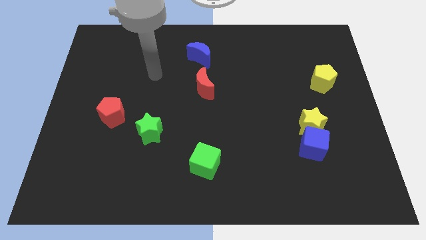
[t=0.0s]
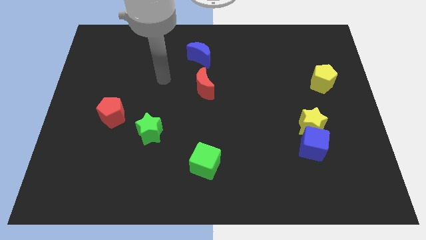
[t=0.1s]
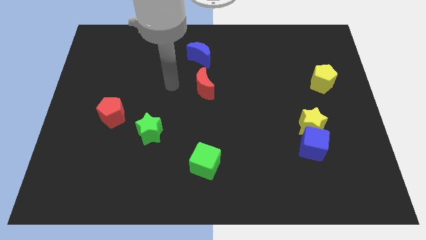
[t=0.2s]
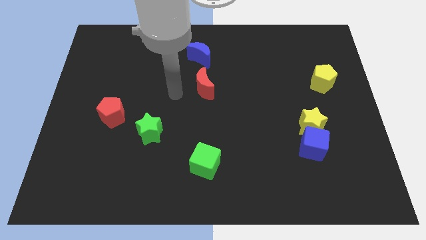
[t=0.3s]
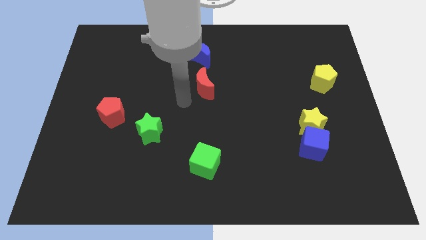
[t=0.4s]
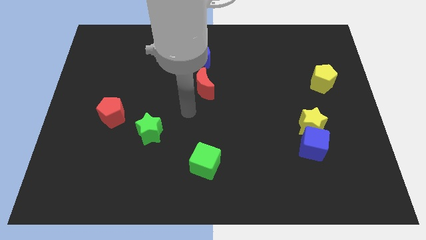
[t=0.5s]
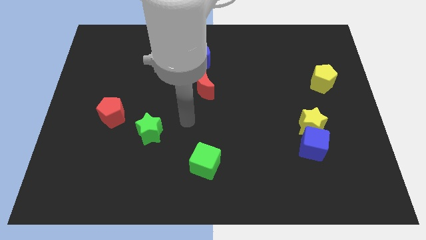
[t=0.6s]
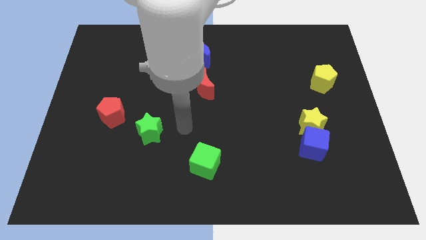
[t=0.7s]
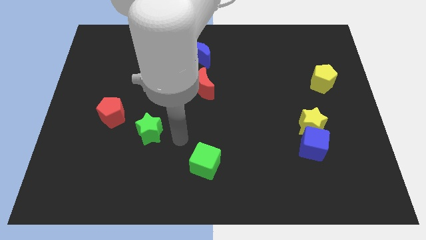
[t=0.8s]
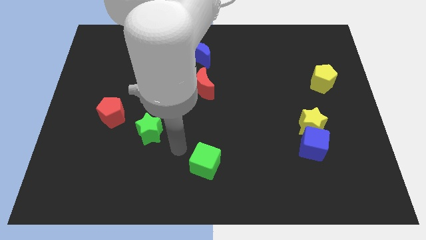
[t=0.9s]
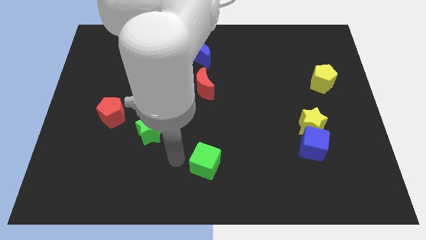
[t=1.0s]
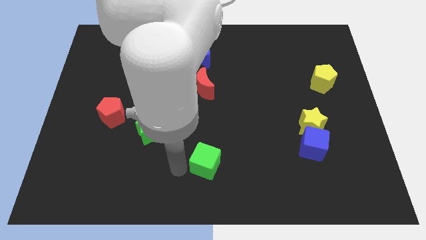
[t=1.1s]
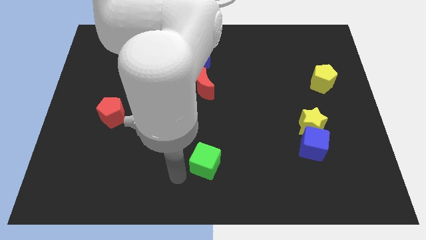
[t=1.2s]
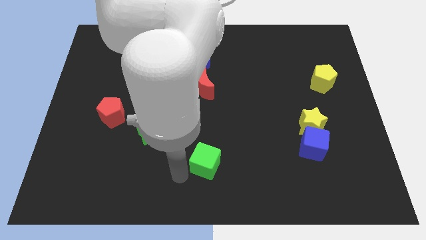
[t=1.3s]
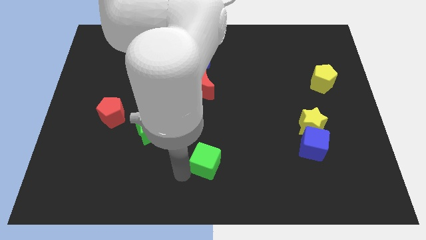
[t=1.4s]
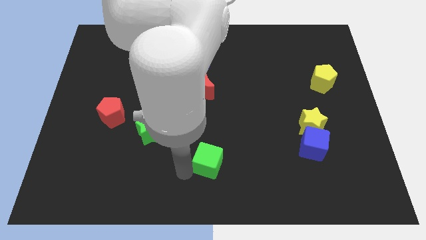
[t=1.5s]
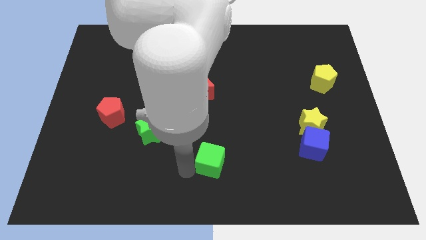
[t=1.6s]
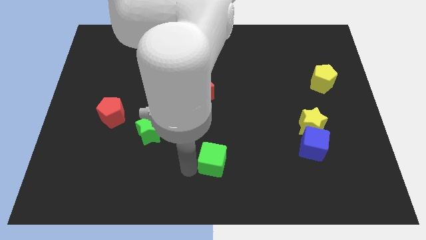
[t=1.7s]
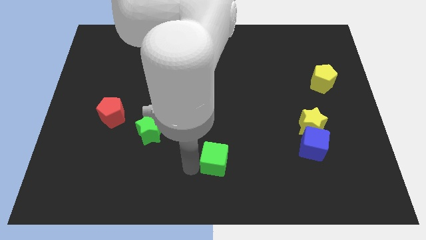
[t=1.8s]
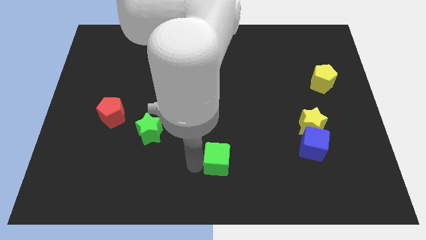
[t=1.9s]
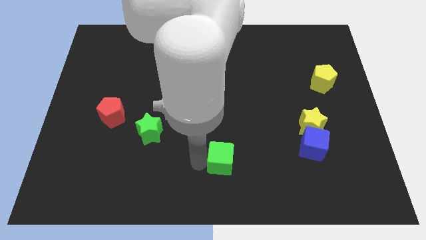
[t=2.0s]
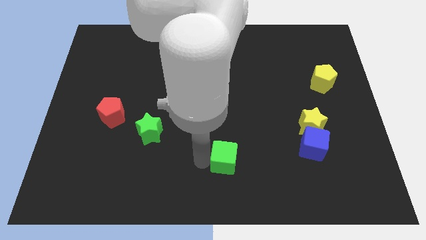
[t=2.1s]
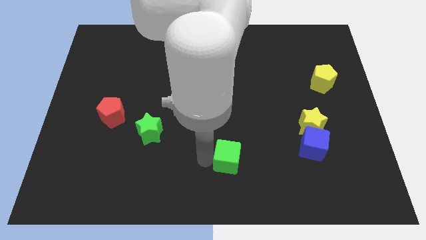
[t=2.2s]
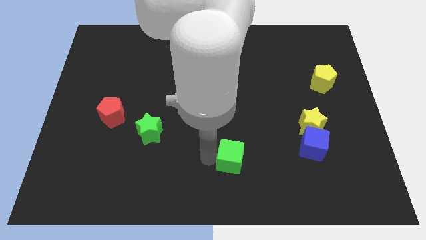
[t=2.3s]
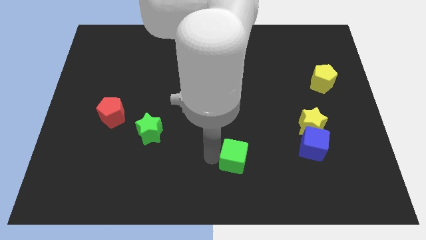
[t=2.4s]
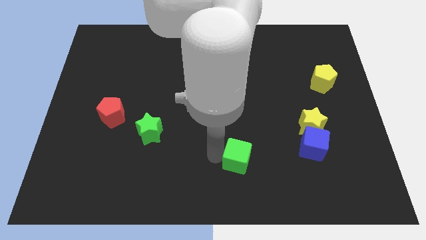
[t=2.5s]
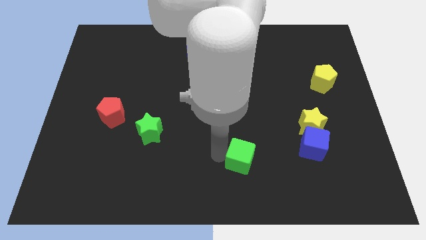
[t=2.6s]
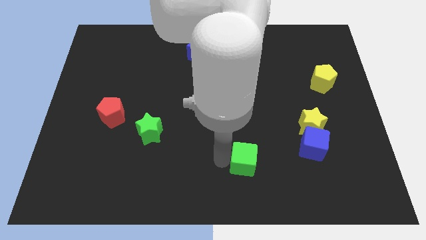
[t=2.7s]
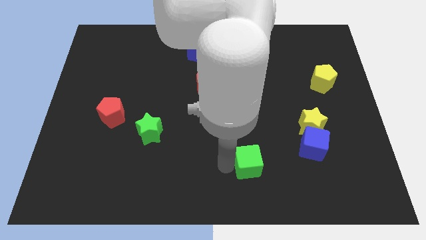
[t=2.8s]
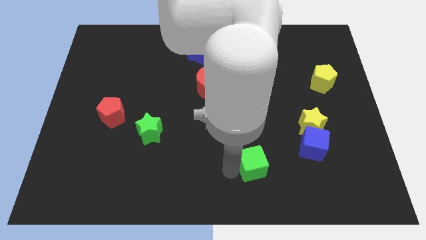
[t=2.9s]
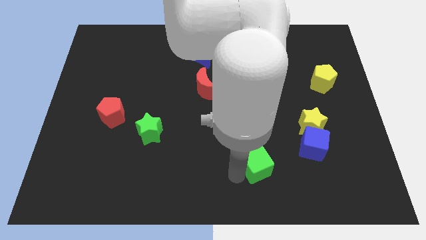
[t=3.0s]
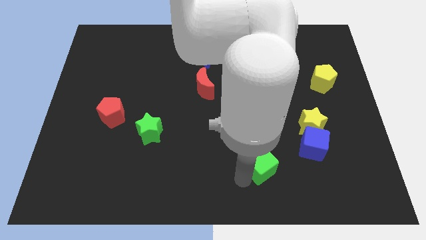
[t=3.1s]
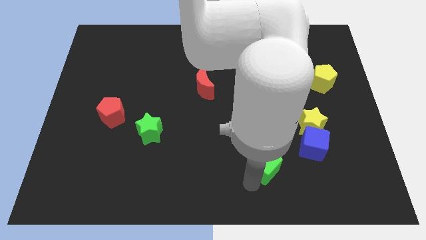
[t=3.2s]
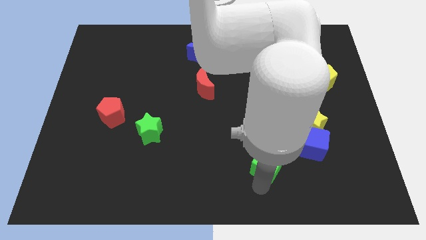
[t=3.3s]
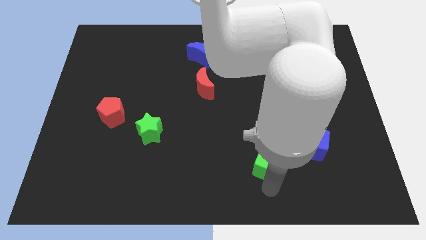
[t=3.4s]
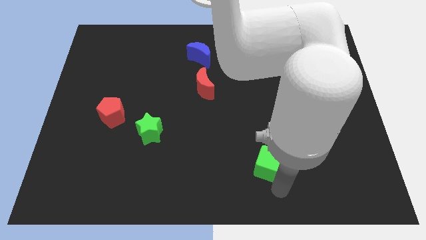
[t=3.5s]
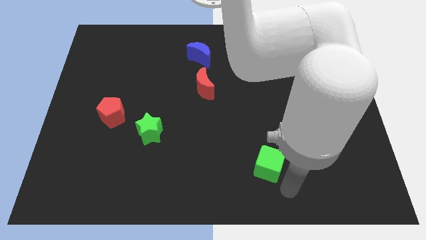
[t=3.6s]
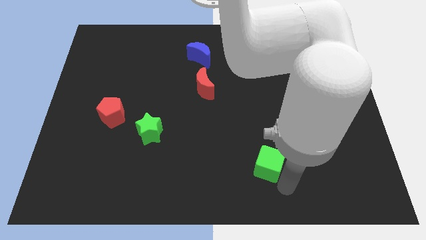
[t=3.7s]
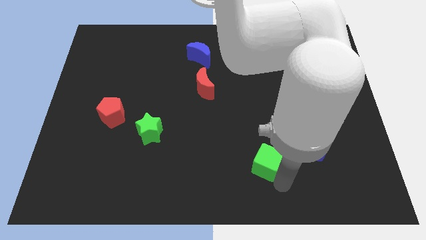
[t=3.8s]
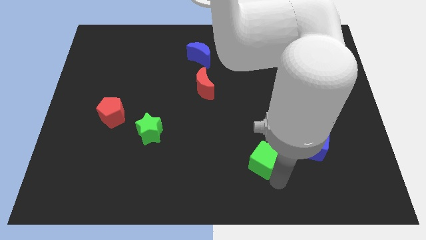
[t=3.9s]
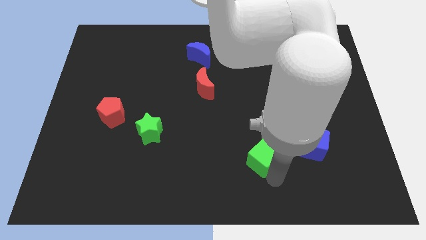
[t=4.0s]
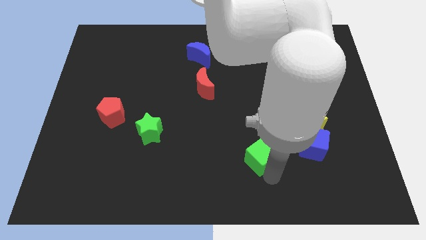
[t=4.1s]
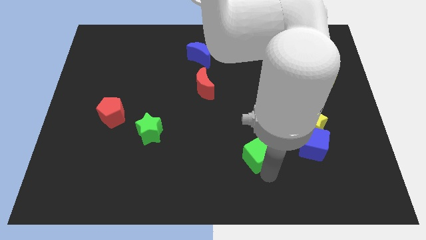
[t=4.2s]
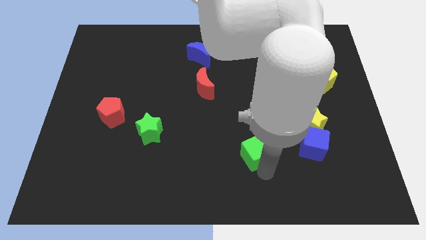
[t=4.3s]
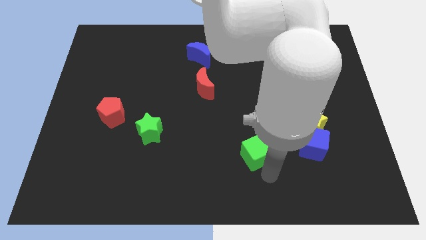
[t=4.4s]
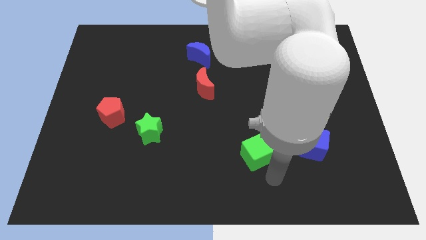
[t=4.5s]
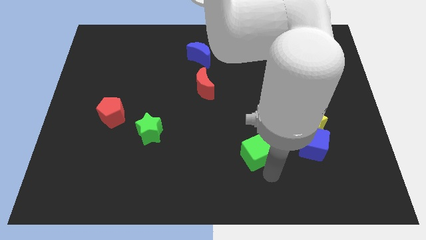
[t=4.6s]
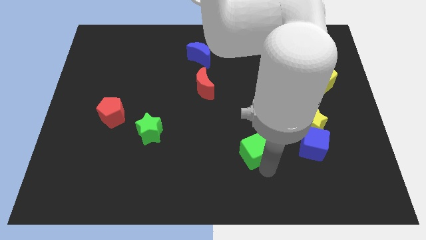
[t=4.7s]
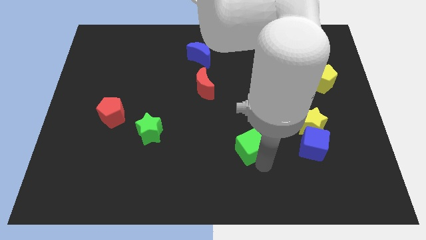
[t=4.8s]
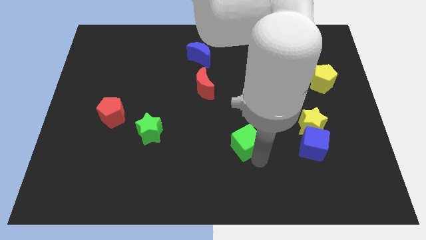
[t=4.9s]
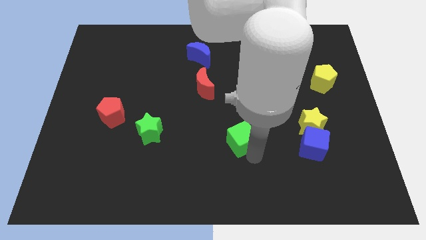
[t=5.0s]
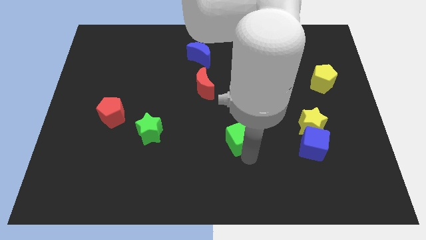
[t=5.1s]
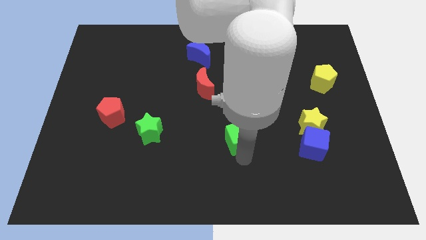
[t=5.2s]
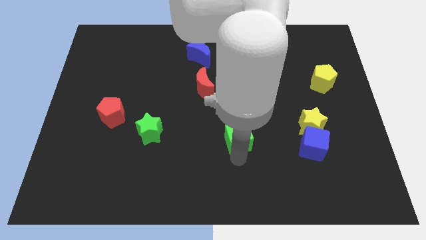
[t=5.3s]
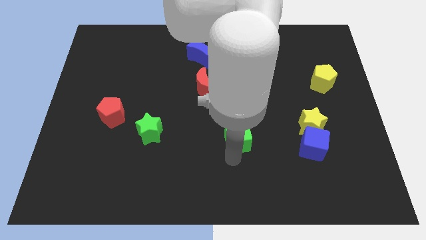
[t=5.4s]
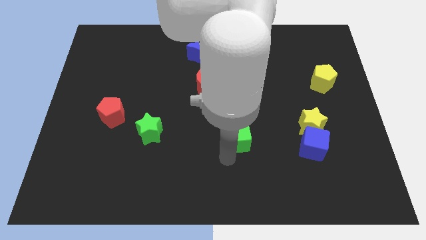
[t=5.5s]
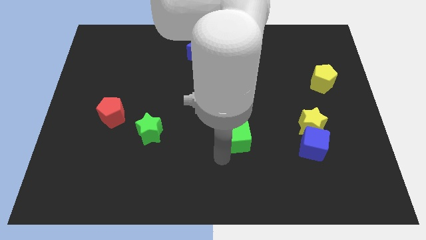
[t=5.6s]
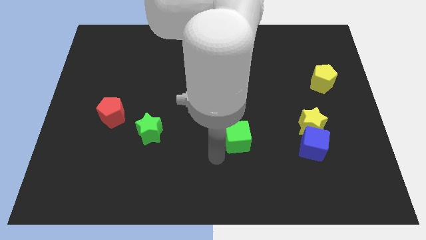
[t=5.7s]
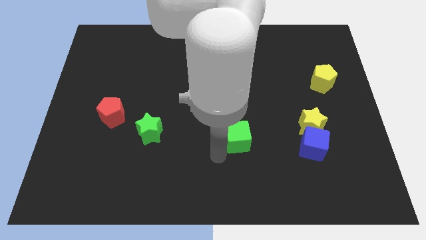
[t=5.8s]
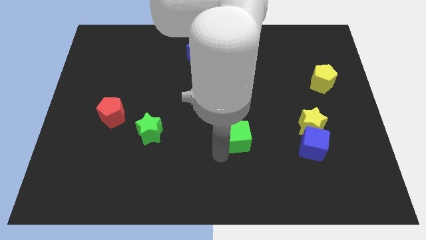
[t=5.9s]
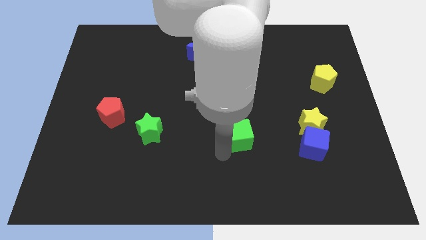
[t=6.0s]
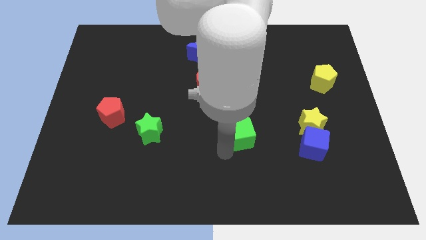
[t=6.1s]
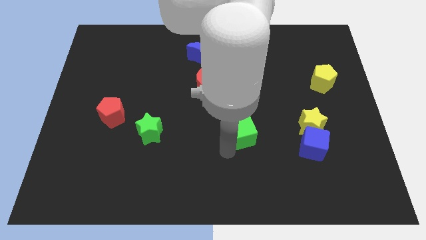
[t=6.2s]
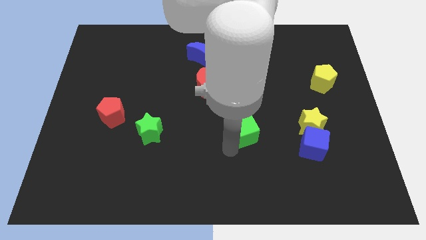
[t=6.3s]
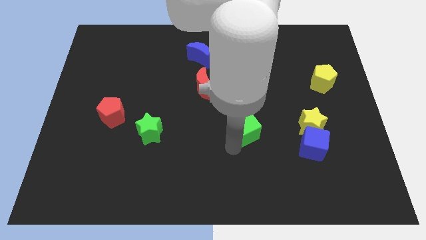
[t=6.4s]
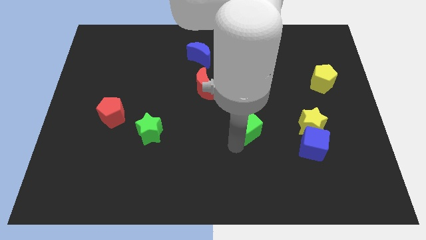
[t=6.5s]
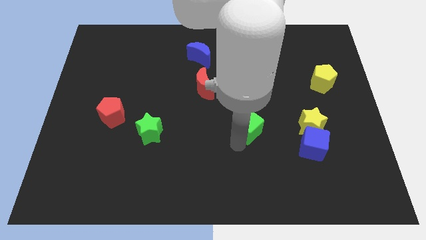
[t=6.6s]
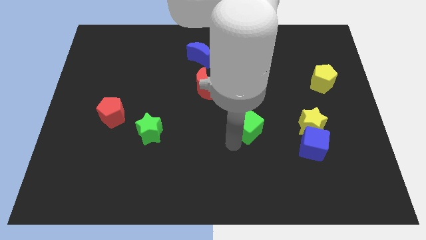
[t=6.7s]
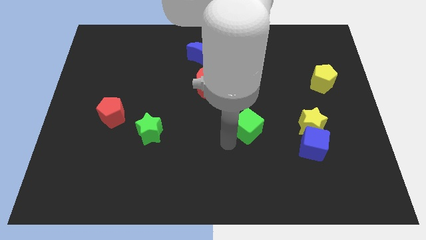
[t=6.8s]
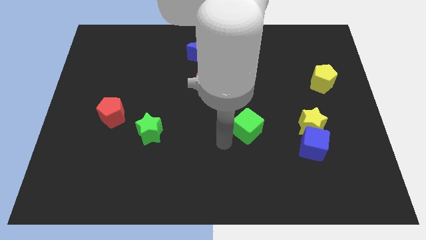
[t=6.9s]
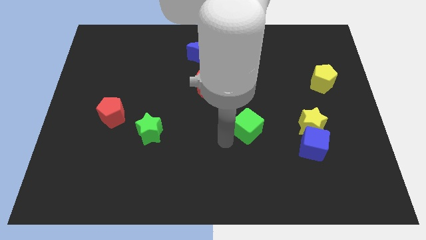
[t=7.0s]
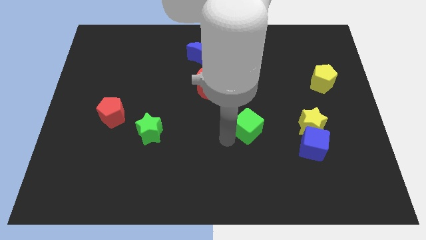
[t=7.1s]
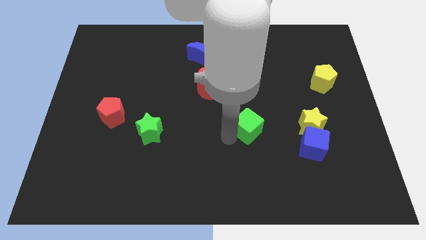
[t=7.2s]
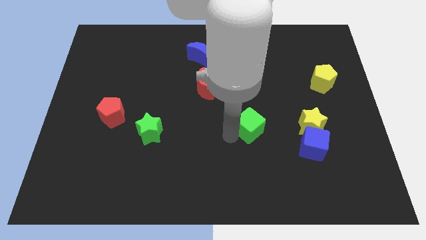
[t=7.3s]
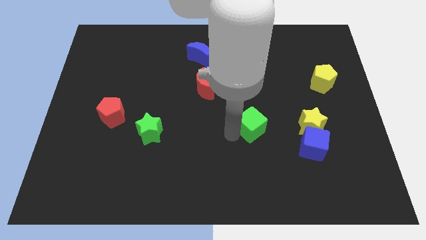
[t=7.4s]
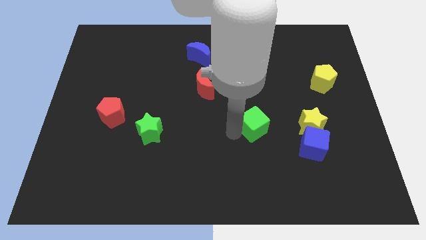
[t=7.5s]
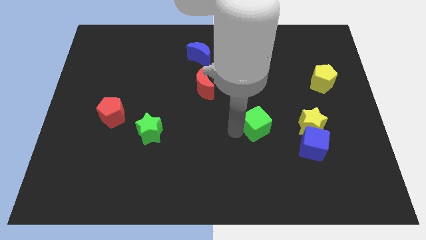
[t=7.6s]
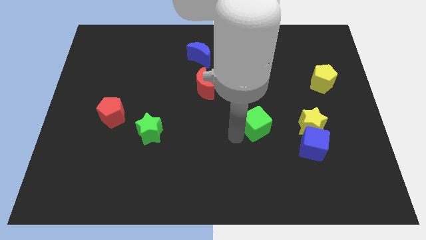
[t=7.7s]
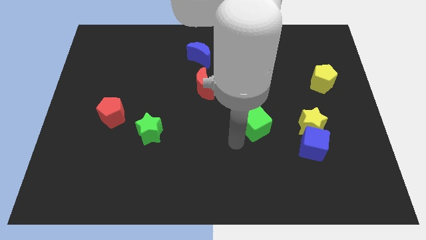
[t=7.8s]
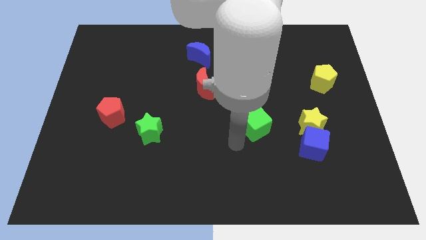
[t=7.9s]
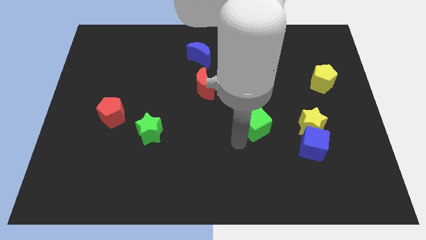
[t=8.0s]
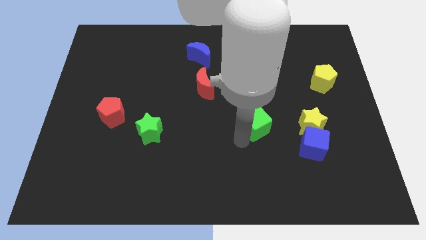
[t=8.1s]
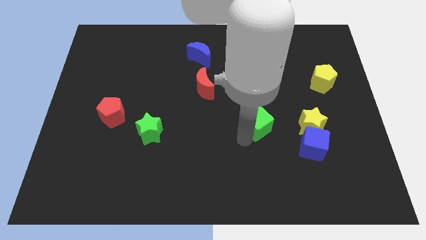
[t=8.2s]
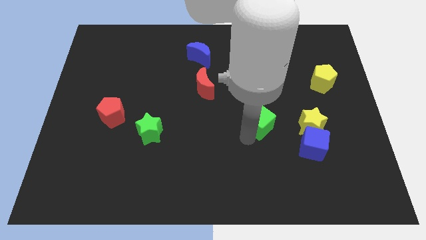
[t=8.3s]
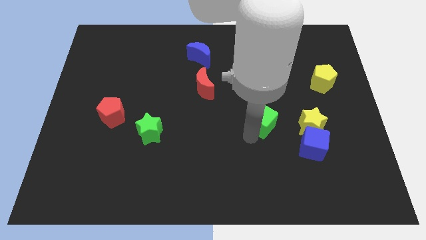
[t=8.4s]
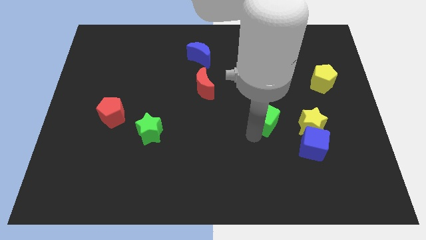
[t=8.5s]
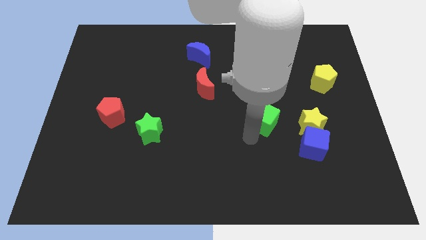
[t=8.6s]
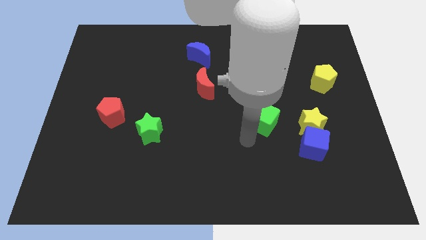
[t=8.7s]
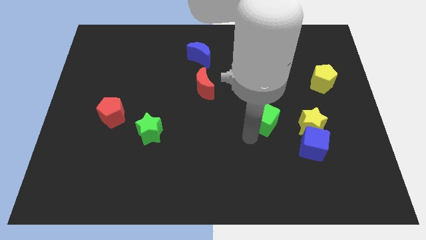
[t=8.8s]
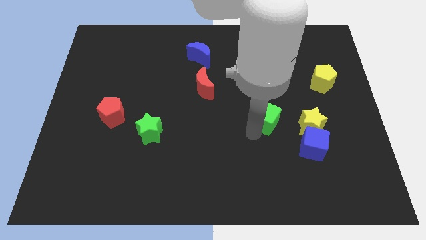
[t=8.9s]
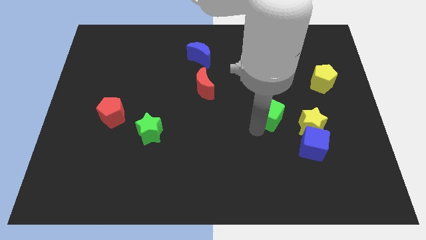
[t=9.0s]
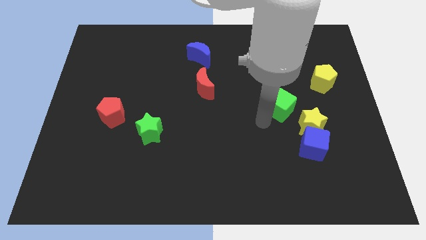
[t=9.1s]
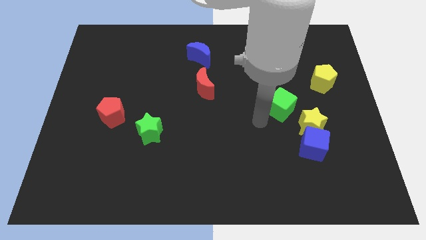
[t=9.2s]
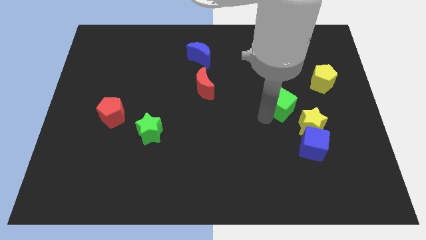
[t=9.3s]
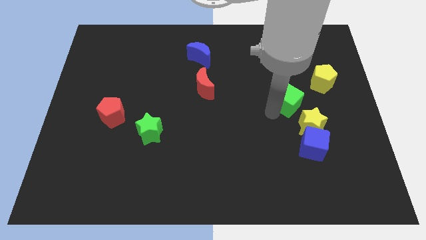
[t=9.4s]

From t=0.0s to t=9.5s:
put the green cube above the yellow star
